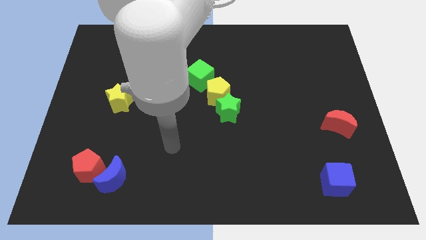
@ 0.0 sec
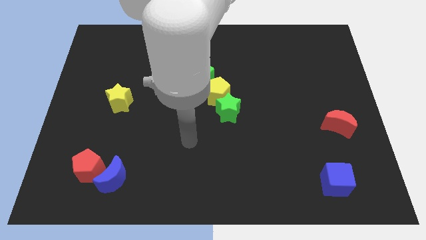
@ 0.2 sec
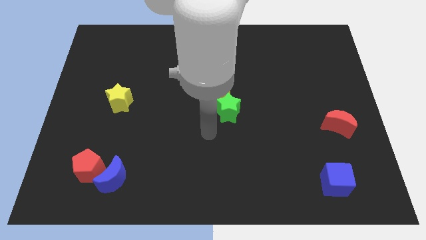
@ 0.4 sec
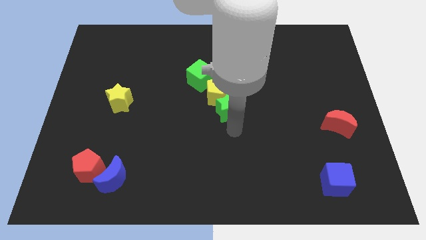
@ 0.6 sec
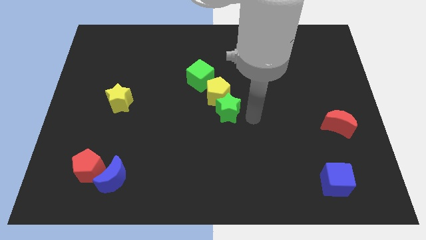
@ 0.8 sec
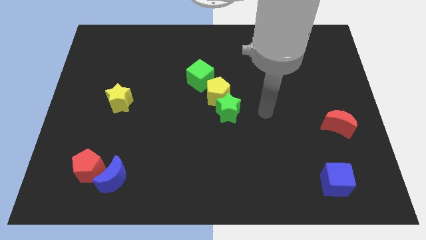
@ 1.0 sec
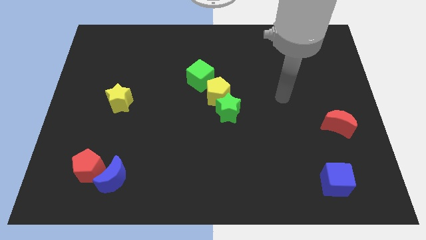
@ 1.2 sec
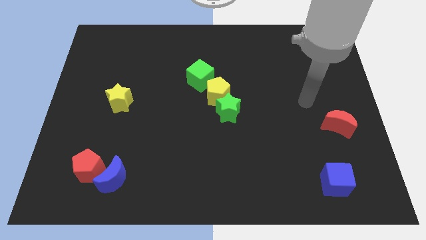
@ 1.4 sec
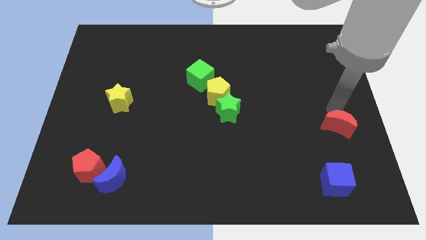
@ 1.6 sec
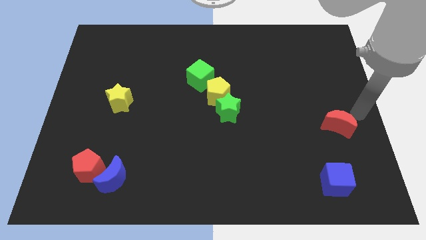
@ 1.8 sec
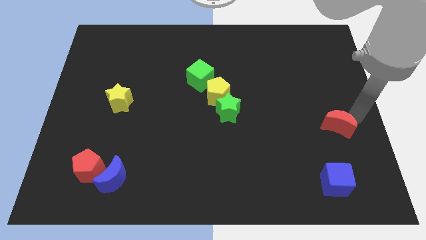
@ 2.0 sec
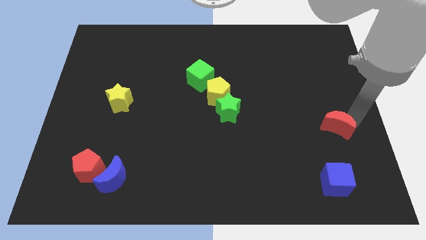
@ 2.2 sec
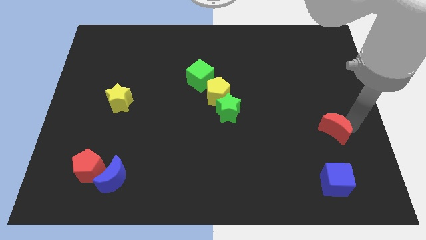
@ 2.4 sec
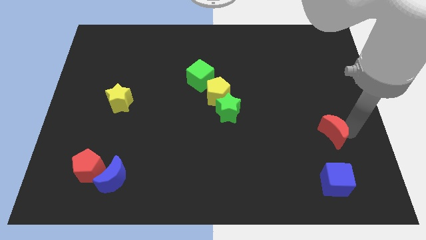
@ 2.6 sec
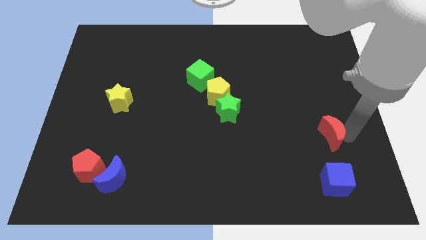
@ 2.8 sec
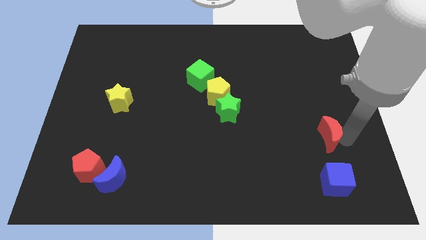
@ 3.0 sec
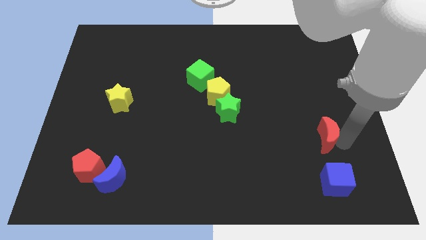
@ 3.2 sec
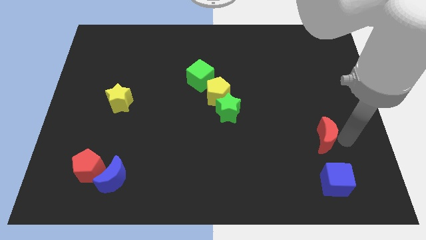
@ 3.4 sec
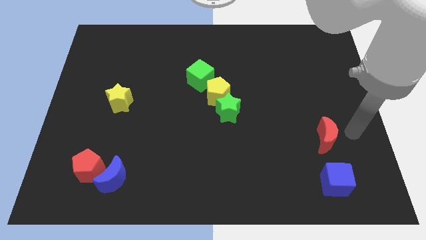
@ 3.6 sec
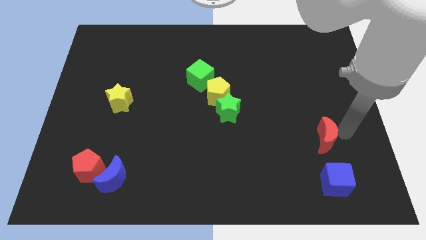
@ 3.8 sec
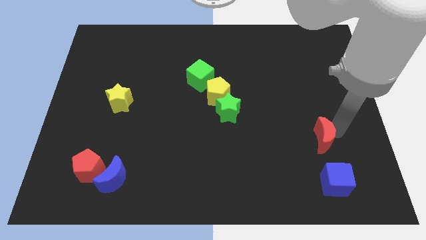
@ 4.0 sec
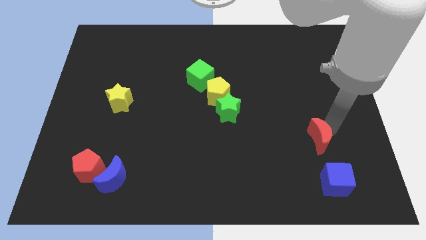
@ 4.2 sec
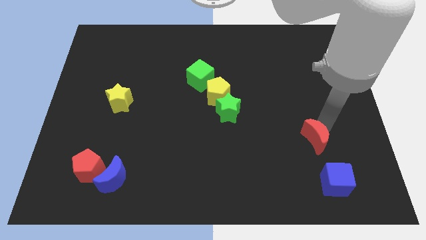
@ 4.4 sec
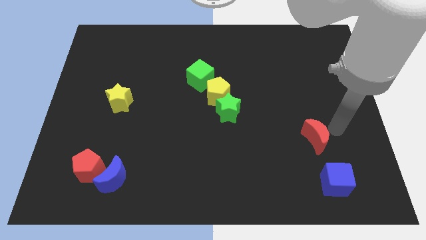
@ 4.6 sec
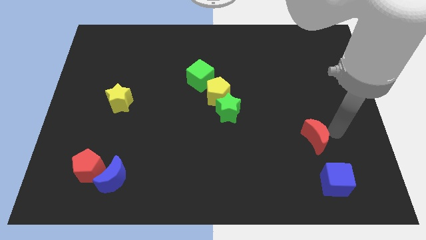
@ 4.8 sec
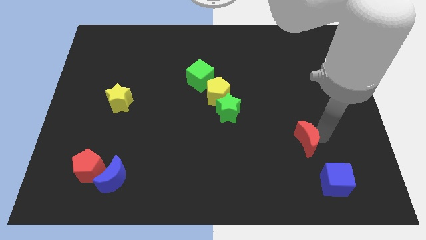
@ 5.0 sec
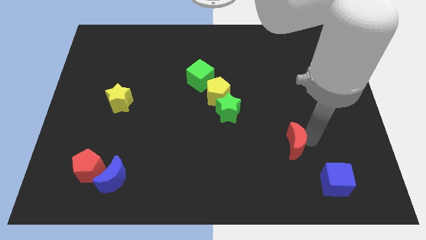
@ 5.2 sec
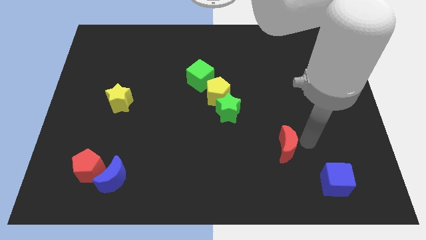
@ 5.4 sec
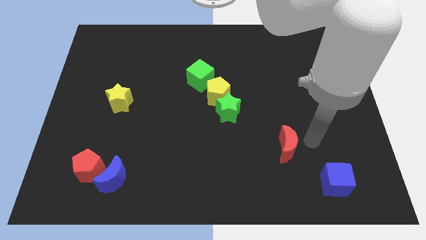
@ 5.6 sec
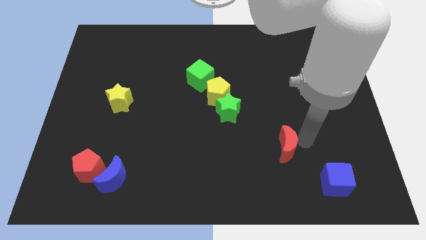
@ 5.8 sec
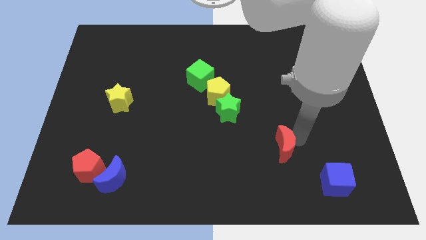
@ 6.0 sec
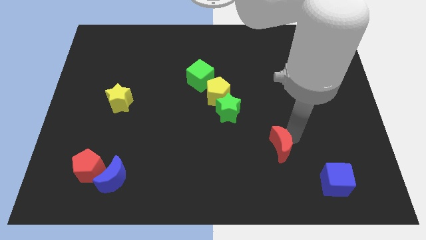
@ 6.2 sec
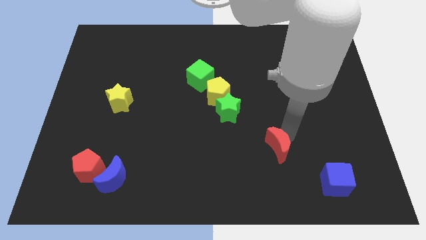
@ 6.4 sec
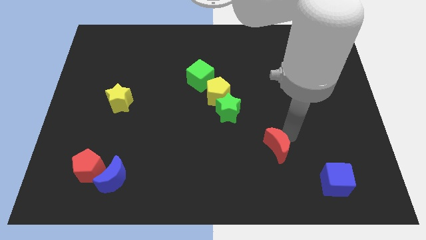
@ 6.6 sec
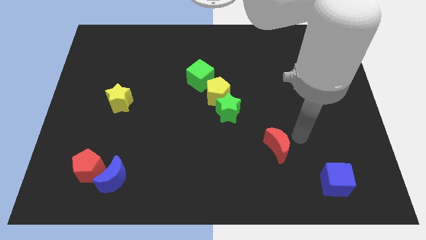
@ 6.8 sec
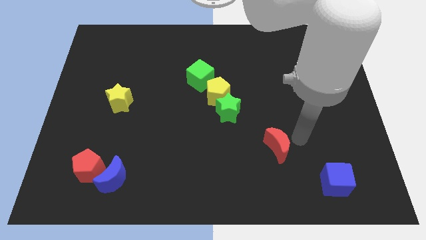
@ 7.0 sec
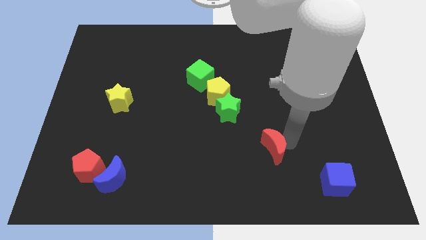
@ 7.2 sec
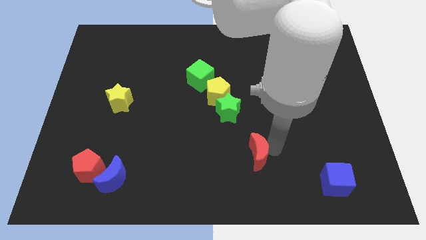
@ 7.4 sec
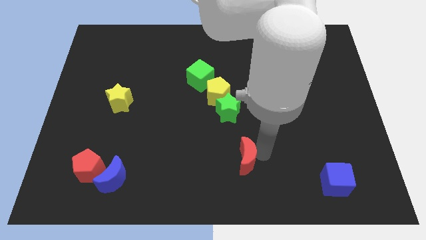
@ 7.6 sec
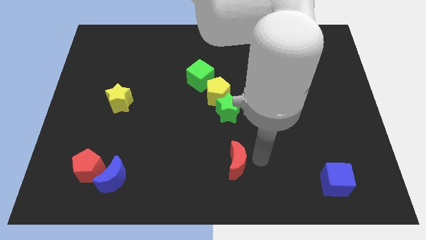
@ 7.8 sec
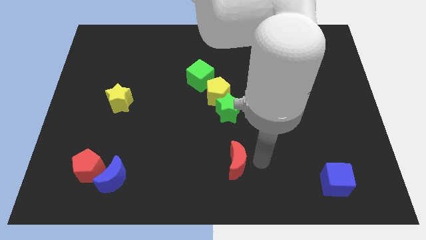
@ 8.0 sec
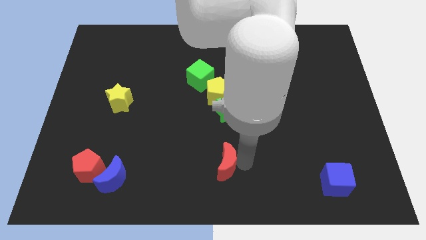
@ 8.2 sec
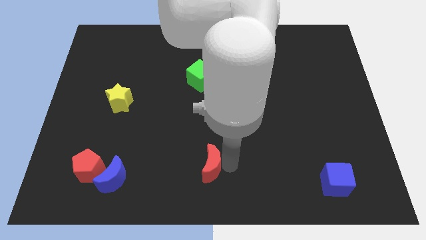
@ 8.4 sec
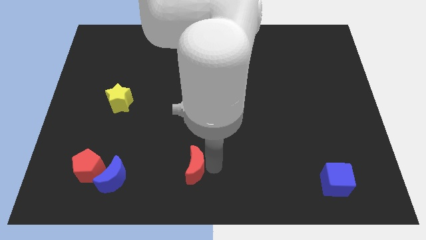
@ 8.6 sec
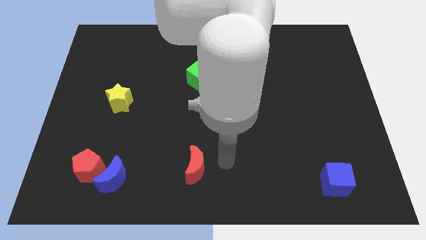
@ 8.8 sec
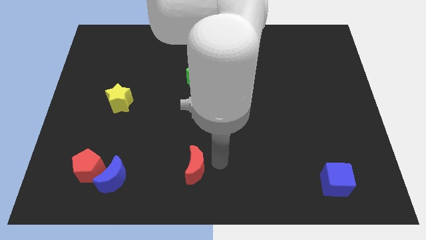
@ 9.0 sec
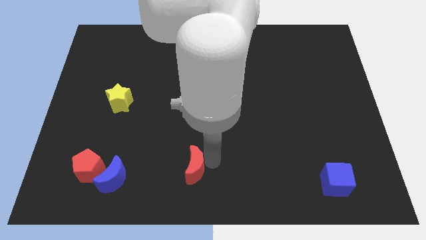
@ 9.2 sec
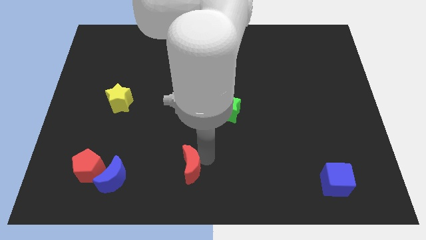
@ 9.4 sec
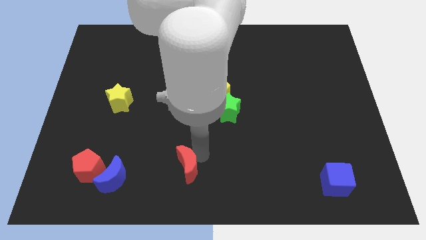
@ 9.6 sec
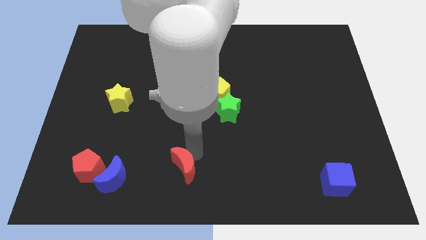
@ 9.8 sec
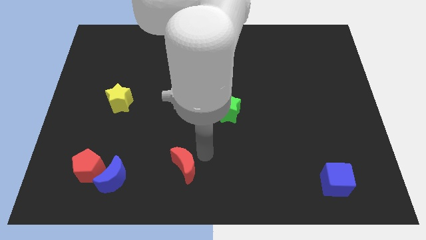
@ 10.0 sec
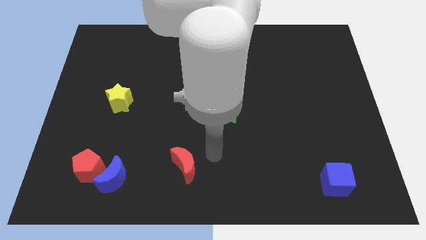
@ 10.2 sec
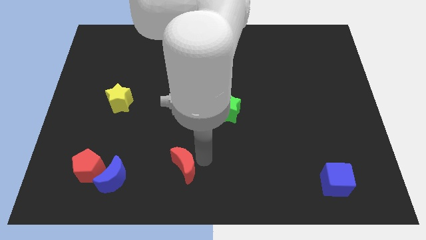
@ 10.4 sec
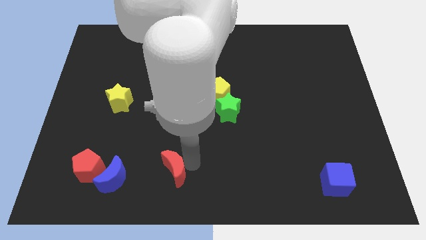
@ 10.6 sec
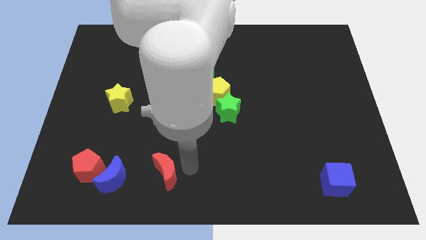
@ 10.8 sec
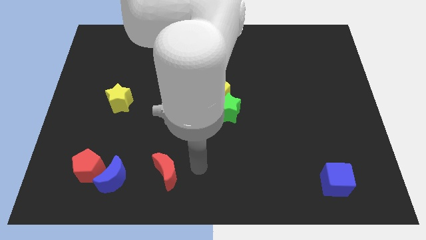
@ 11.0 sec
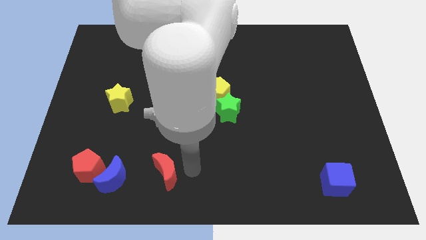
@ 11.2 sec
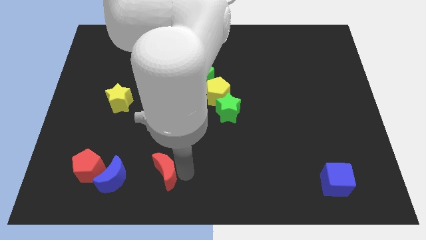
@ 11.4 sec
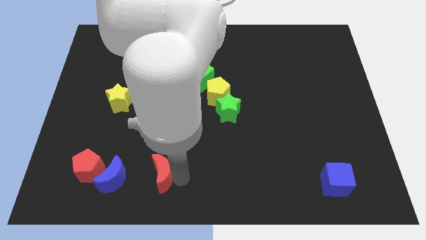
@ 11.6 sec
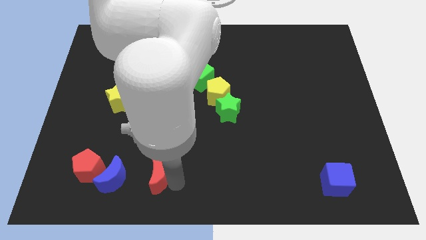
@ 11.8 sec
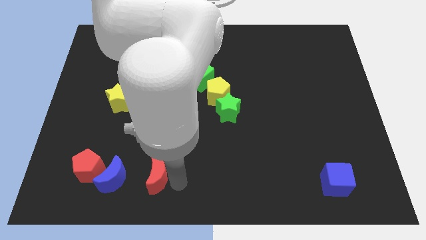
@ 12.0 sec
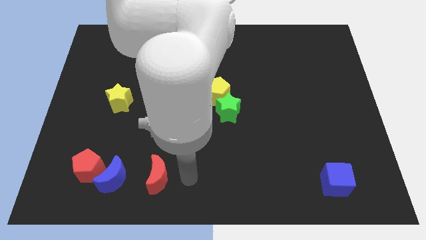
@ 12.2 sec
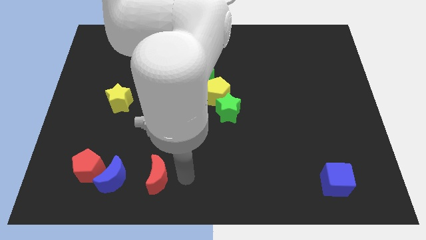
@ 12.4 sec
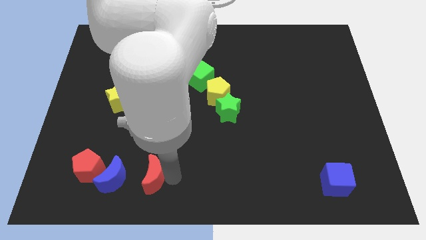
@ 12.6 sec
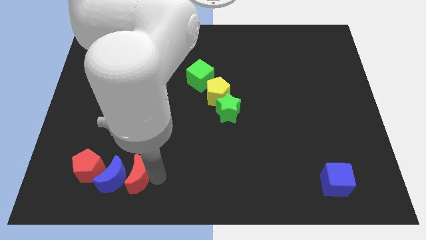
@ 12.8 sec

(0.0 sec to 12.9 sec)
push the red moon next to the blue moon

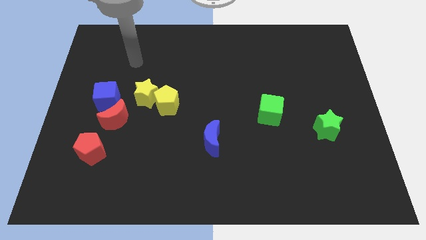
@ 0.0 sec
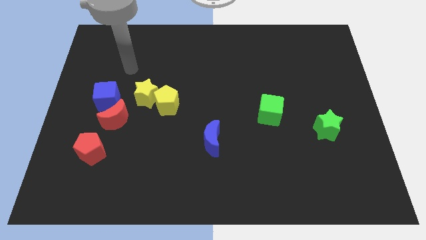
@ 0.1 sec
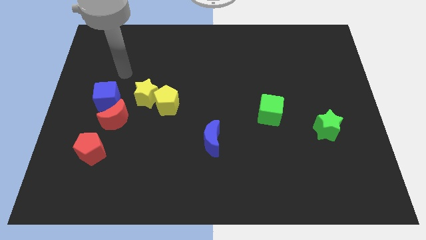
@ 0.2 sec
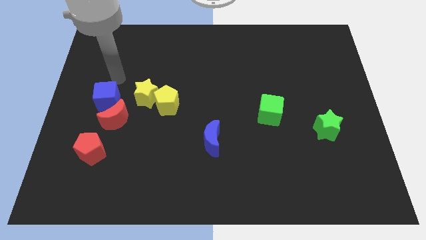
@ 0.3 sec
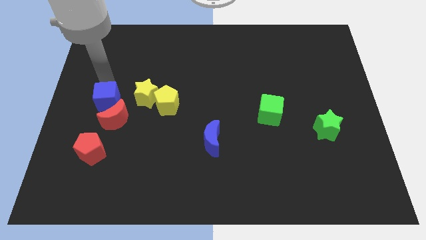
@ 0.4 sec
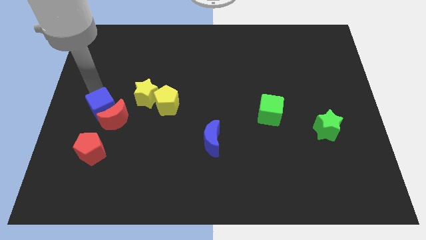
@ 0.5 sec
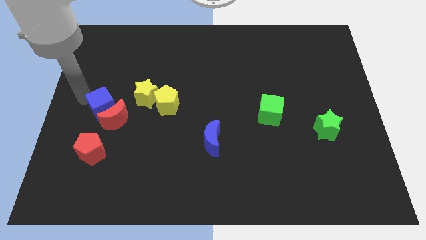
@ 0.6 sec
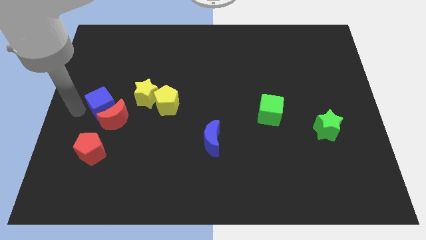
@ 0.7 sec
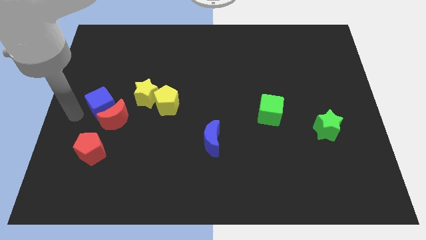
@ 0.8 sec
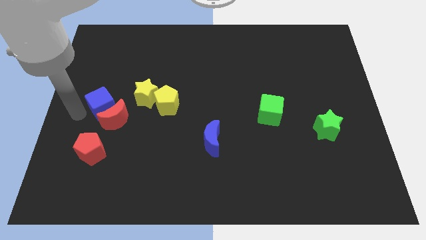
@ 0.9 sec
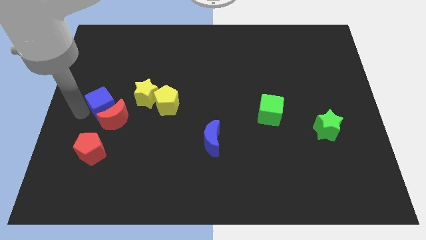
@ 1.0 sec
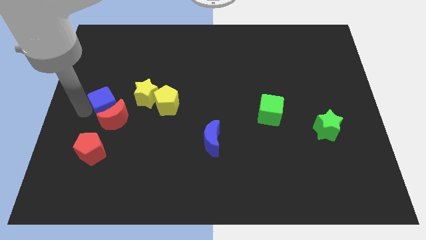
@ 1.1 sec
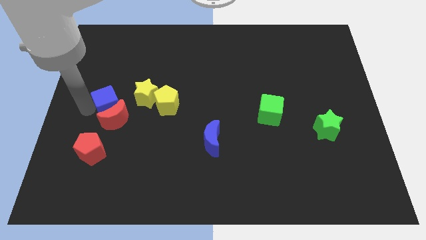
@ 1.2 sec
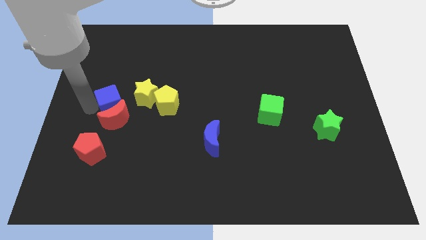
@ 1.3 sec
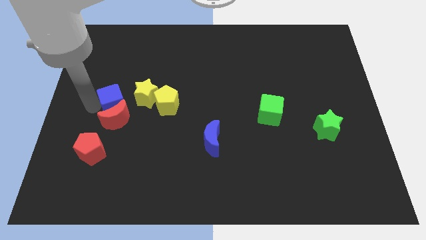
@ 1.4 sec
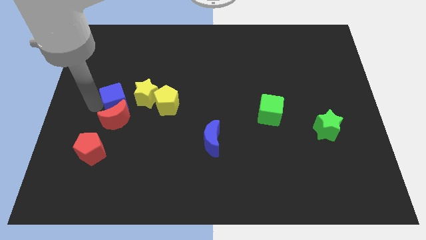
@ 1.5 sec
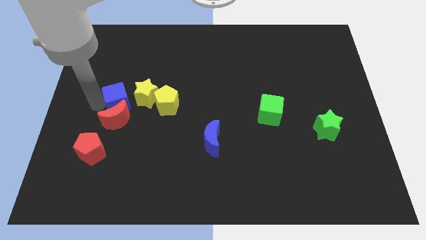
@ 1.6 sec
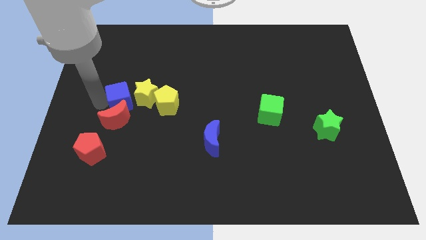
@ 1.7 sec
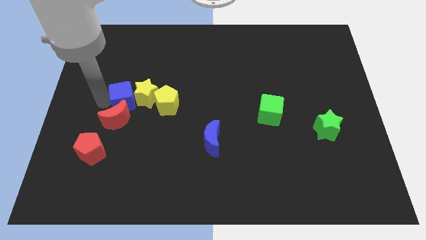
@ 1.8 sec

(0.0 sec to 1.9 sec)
move the blue cube to the yellow star
